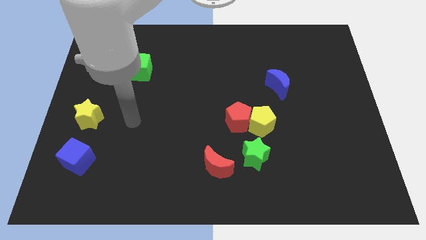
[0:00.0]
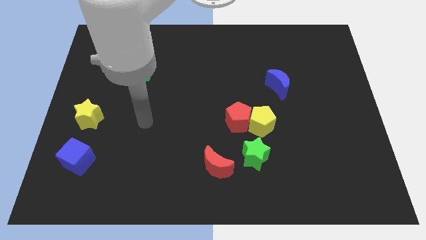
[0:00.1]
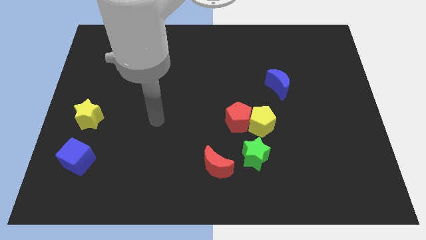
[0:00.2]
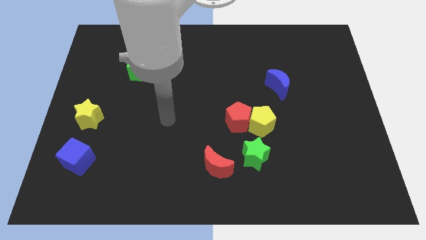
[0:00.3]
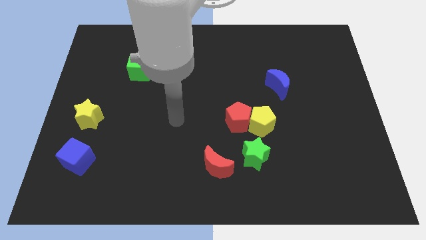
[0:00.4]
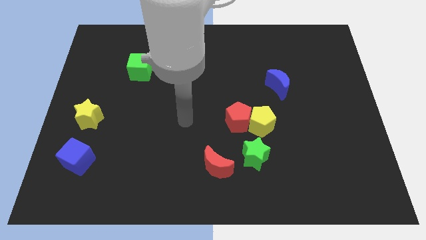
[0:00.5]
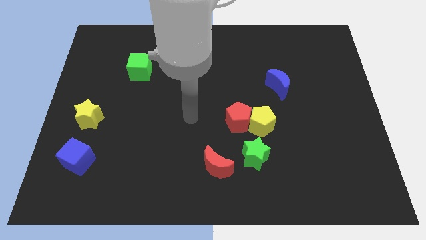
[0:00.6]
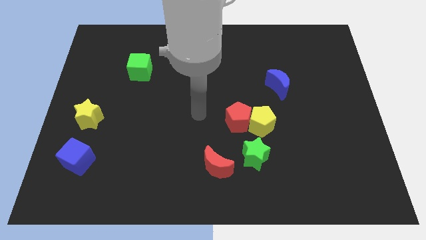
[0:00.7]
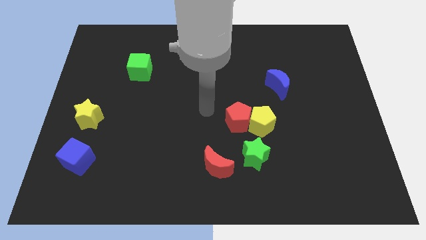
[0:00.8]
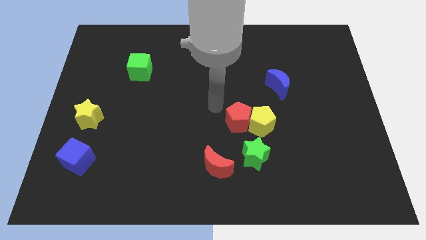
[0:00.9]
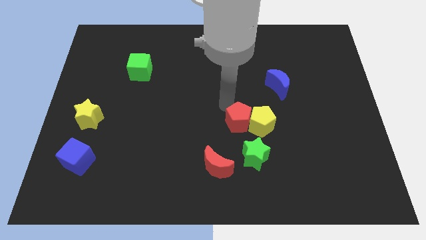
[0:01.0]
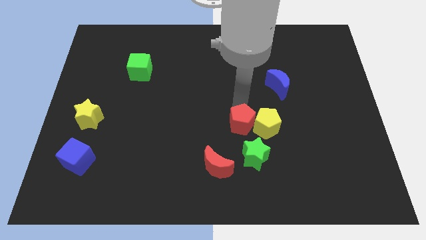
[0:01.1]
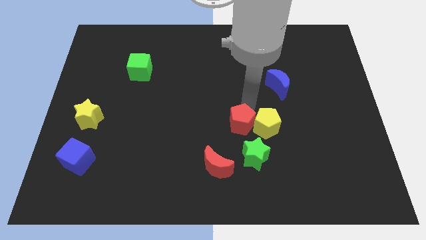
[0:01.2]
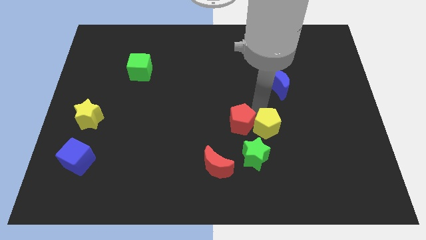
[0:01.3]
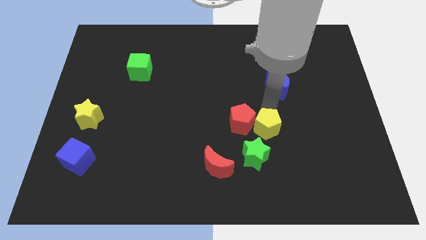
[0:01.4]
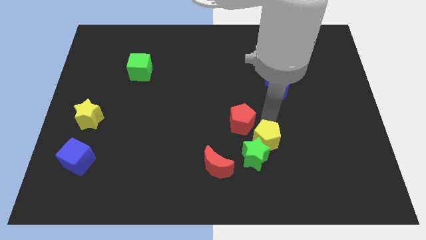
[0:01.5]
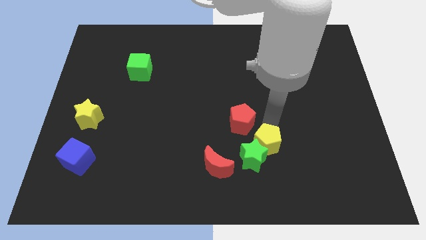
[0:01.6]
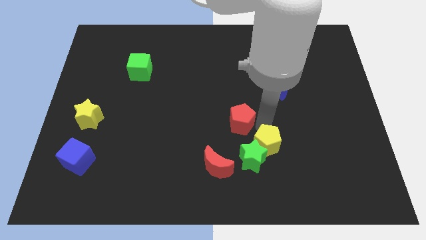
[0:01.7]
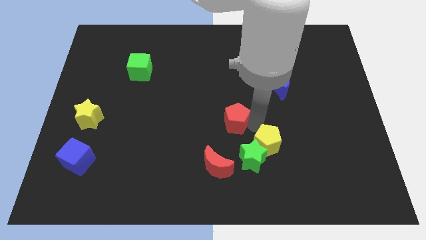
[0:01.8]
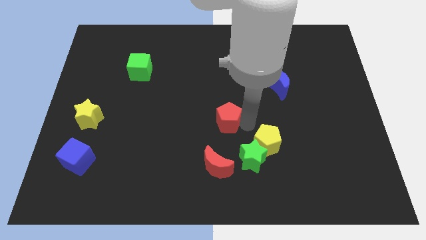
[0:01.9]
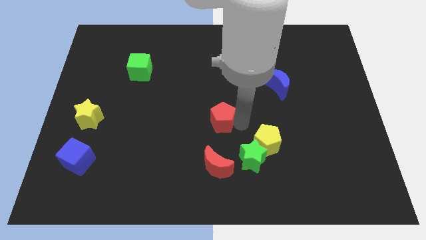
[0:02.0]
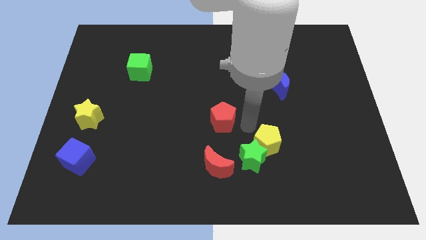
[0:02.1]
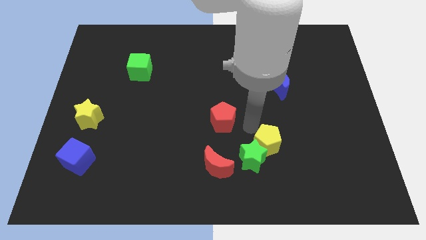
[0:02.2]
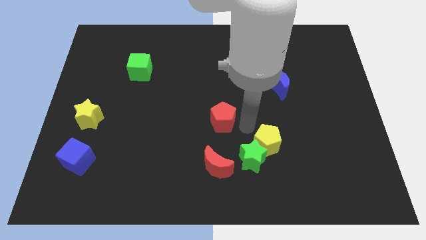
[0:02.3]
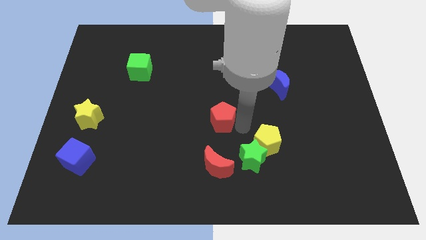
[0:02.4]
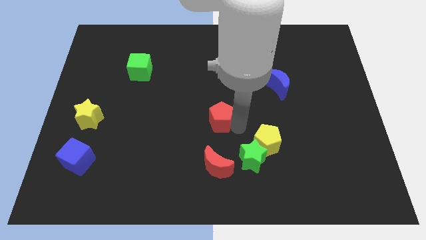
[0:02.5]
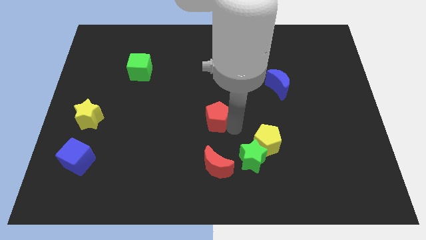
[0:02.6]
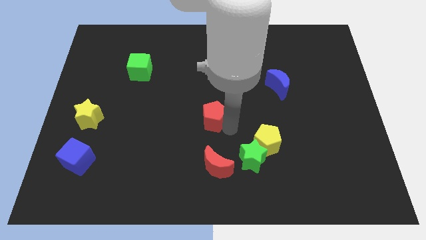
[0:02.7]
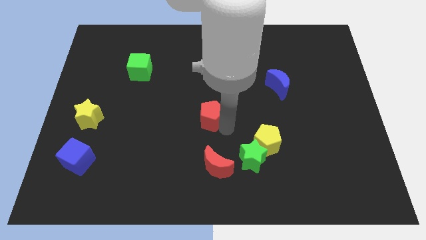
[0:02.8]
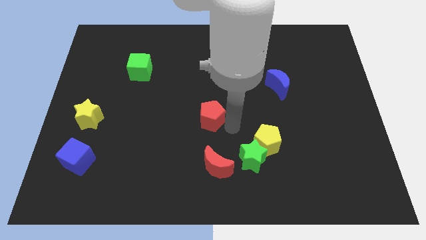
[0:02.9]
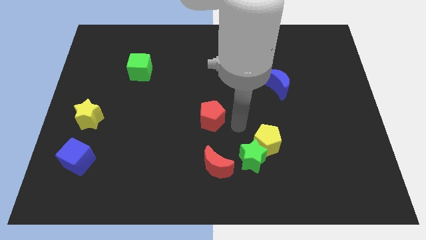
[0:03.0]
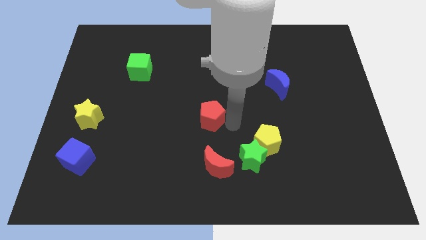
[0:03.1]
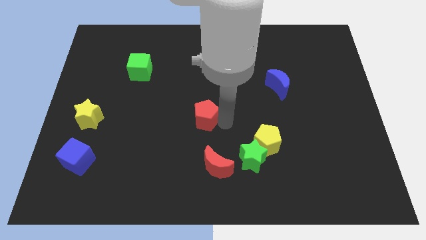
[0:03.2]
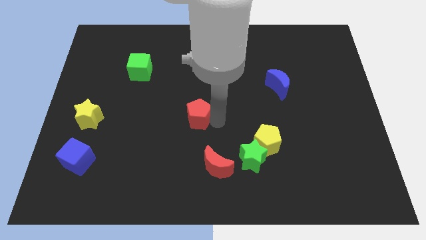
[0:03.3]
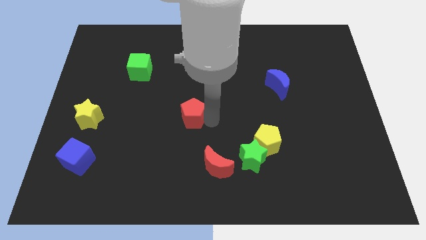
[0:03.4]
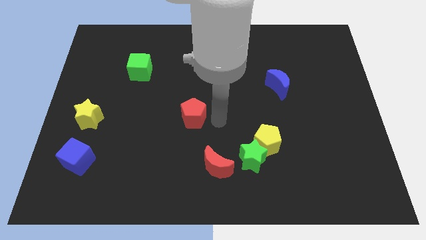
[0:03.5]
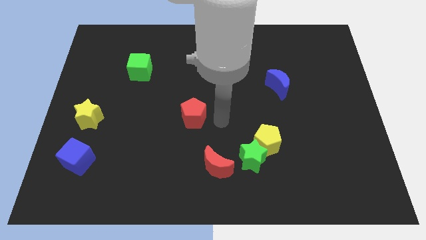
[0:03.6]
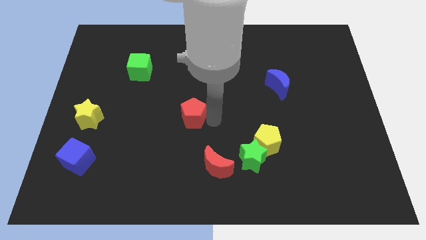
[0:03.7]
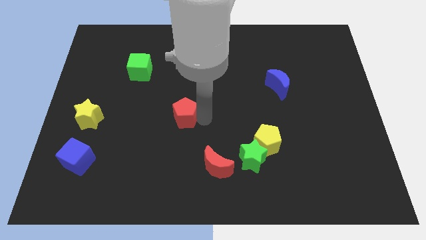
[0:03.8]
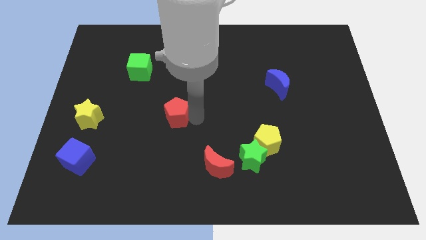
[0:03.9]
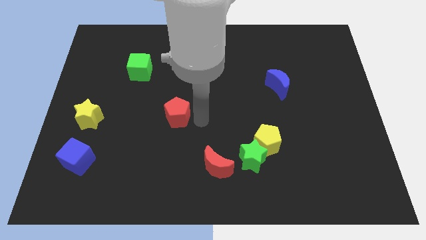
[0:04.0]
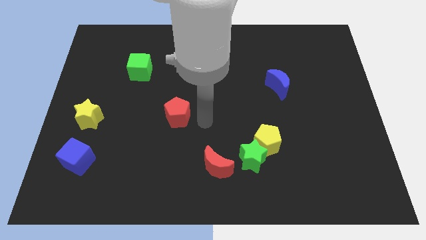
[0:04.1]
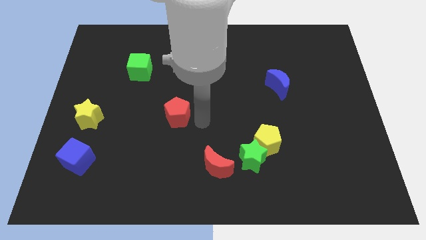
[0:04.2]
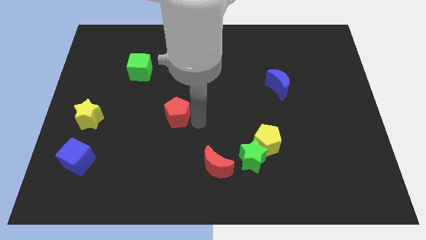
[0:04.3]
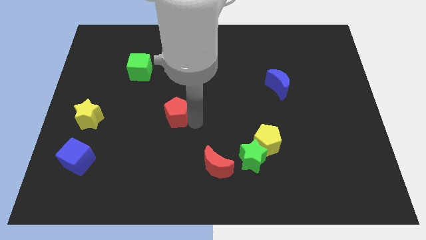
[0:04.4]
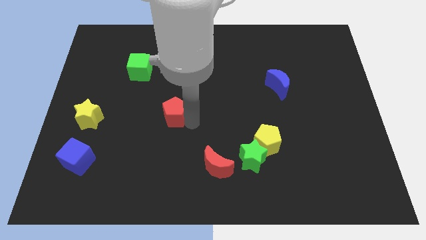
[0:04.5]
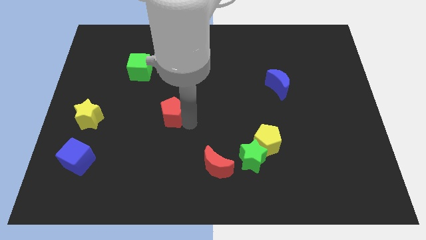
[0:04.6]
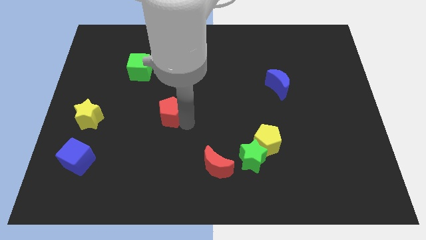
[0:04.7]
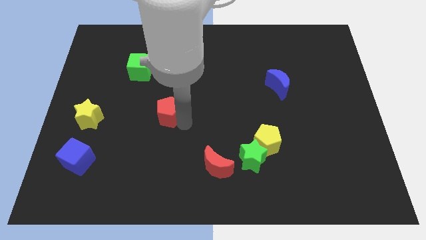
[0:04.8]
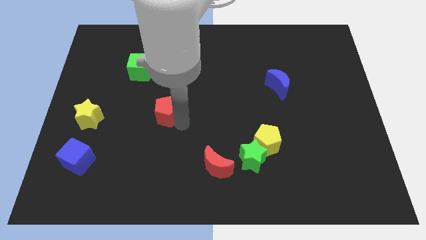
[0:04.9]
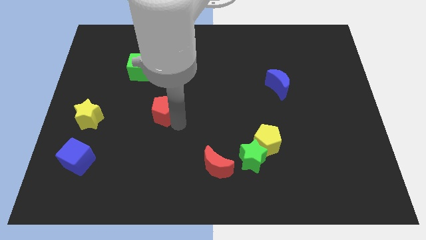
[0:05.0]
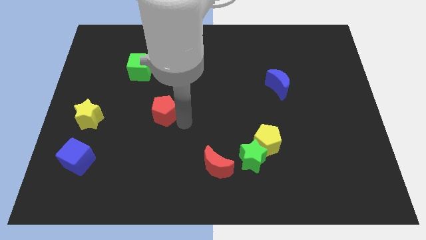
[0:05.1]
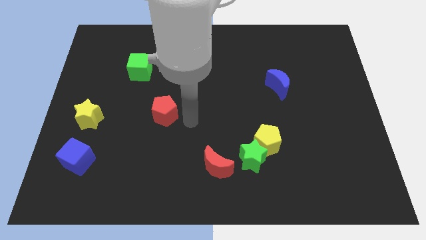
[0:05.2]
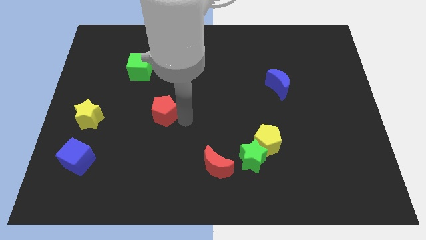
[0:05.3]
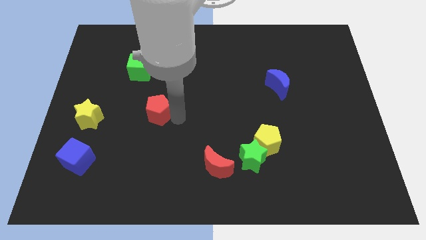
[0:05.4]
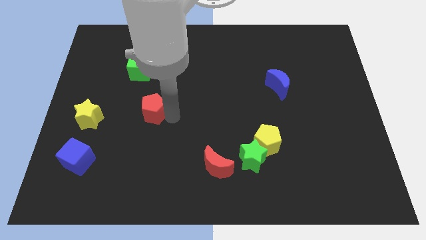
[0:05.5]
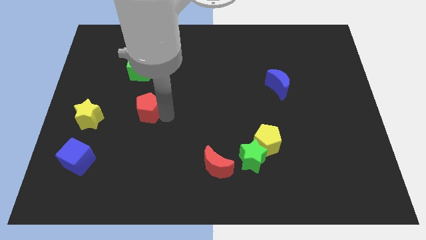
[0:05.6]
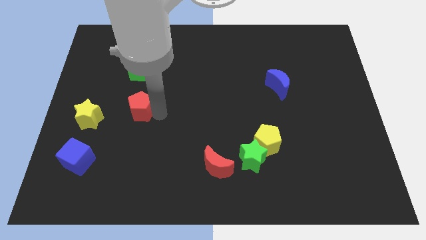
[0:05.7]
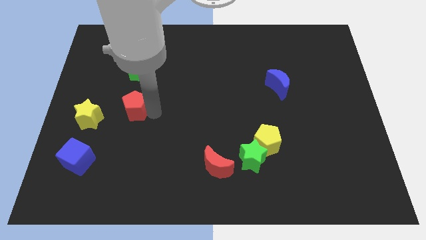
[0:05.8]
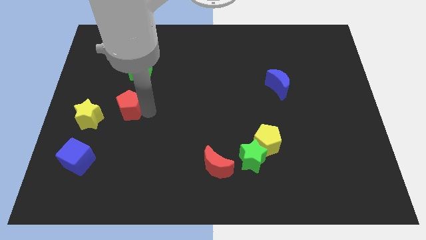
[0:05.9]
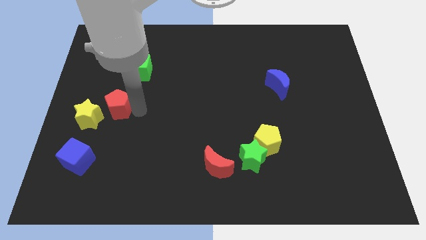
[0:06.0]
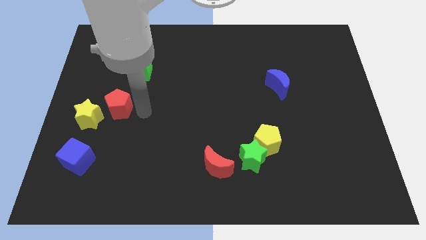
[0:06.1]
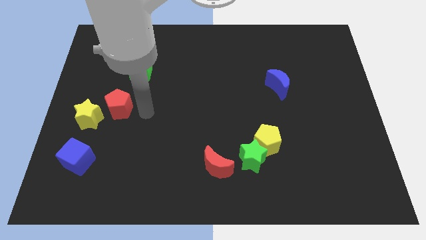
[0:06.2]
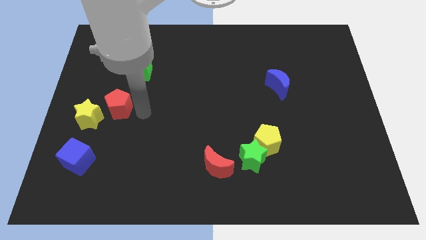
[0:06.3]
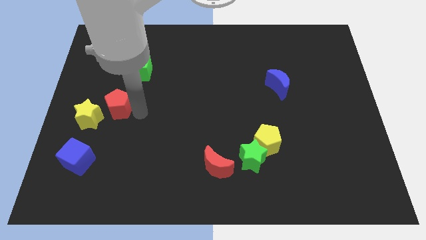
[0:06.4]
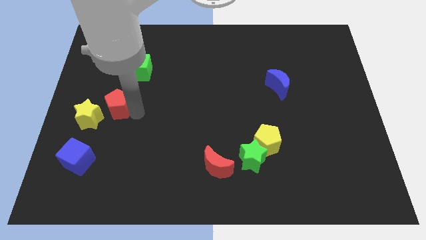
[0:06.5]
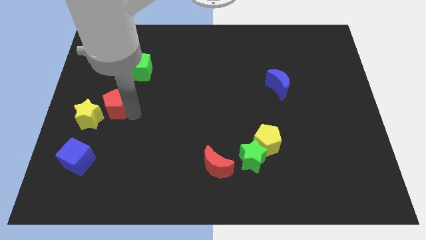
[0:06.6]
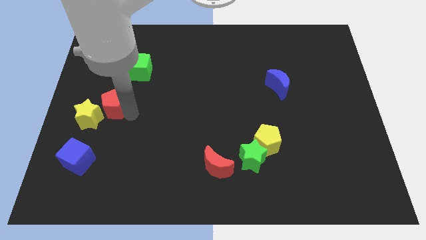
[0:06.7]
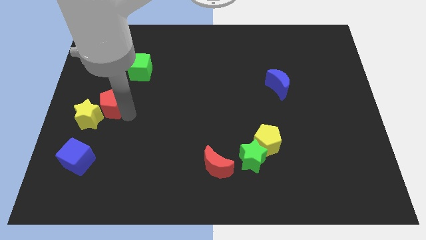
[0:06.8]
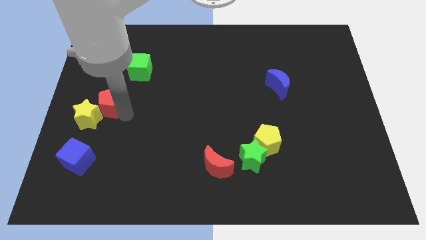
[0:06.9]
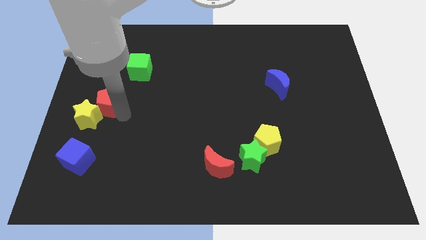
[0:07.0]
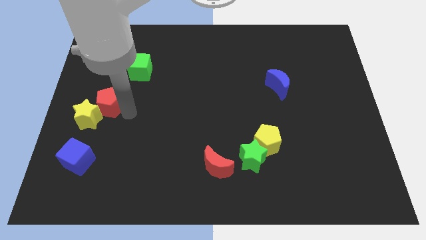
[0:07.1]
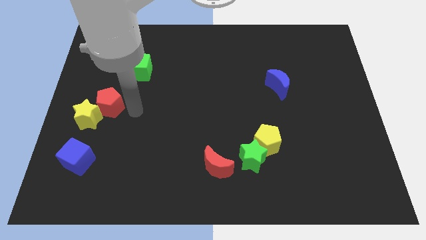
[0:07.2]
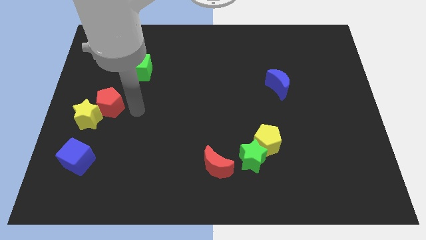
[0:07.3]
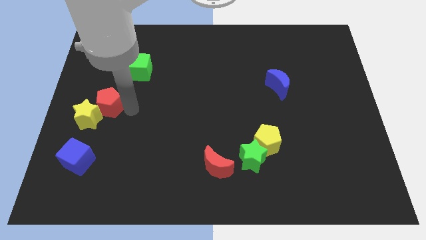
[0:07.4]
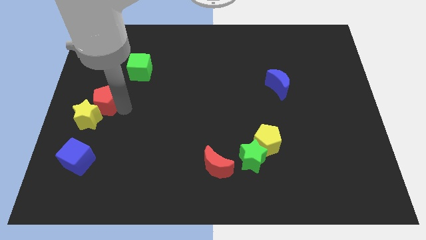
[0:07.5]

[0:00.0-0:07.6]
move the red pentagon to the center left
